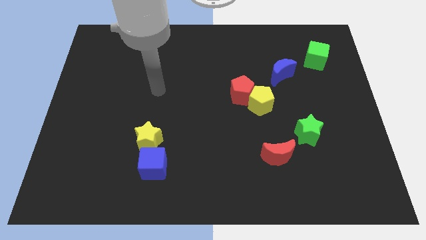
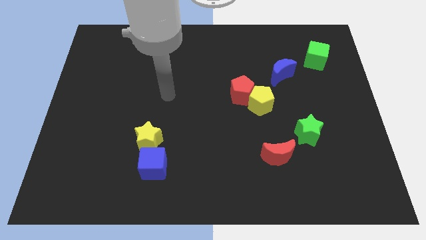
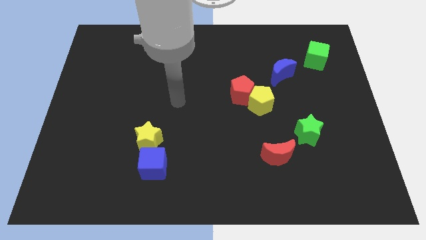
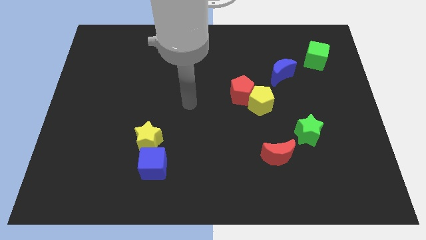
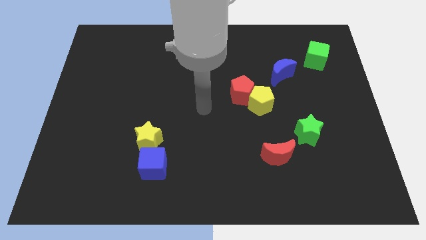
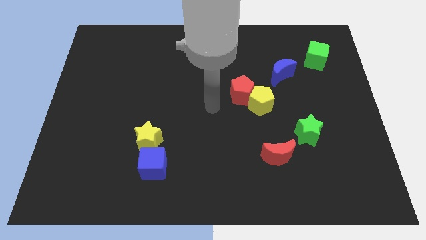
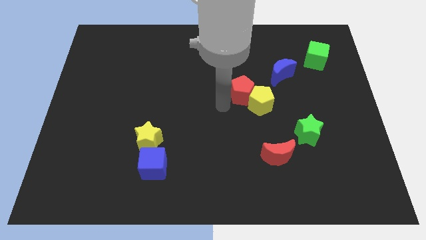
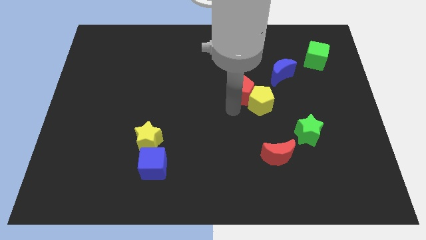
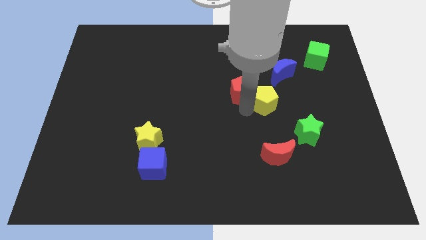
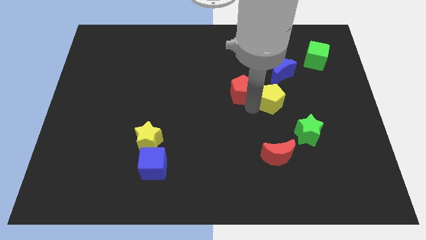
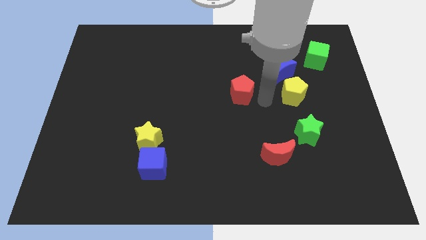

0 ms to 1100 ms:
pull the red pentagon apart from the yellow pentagon

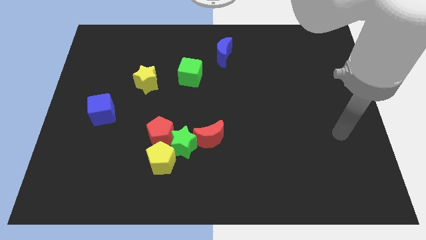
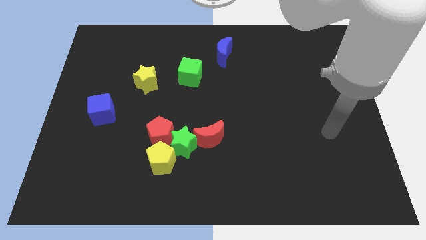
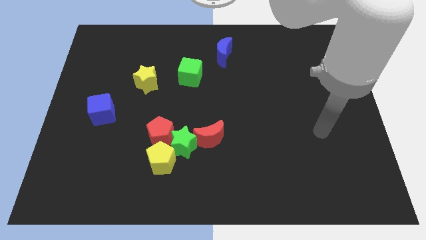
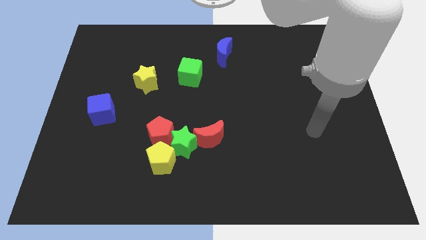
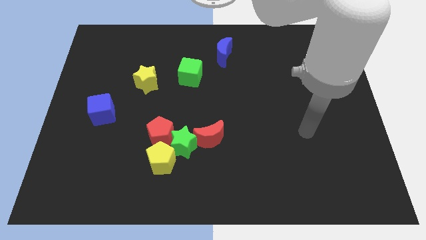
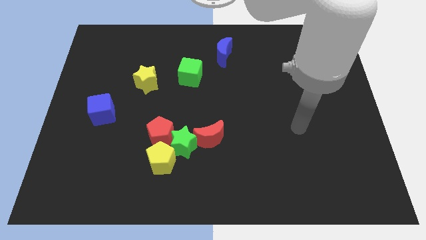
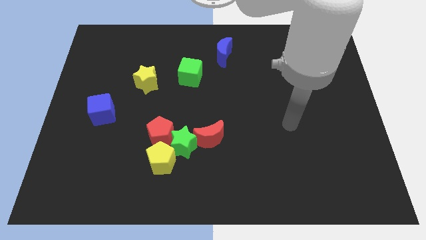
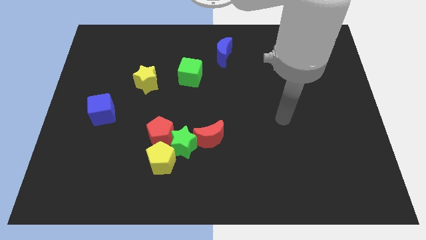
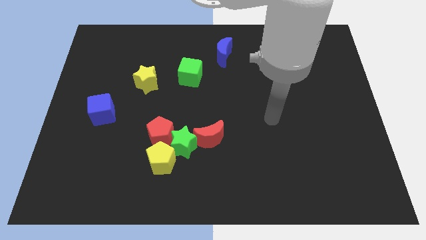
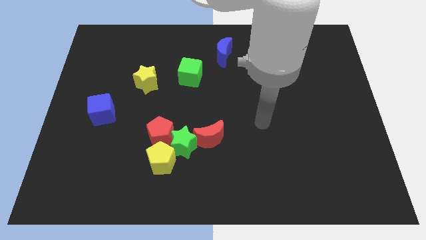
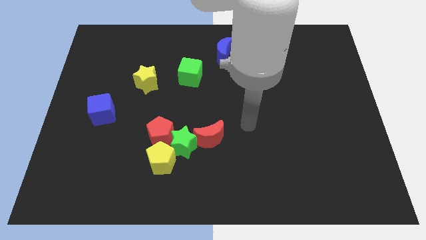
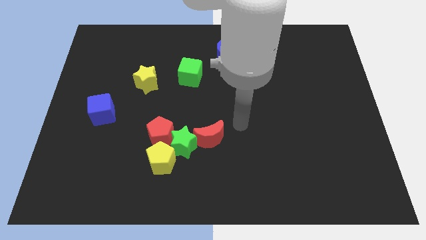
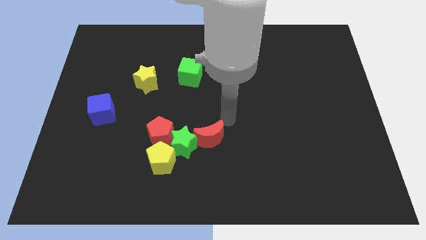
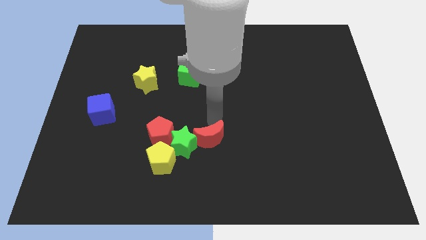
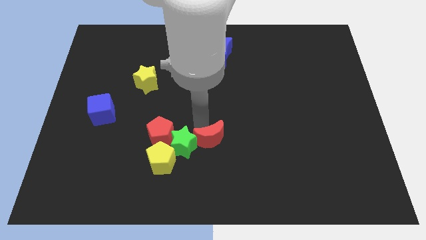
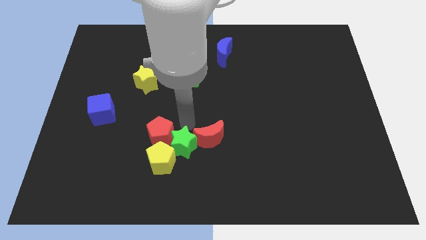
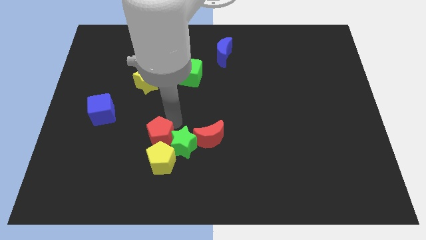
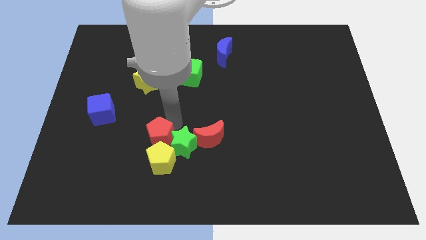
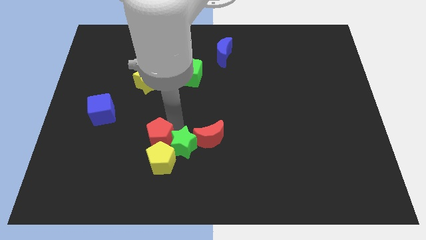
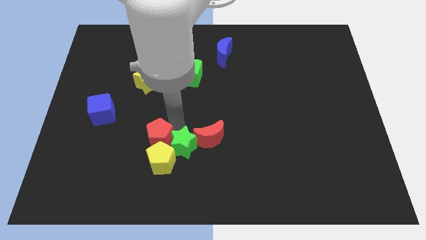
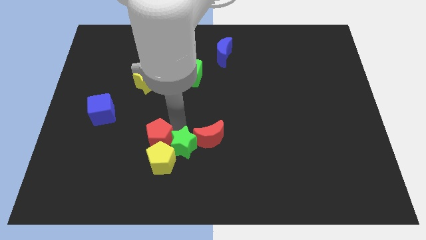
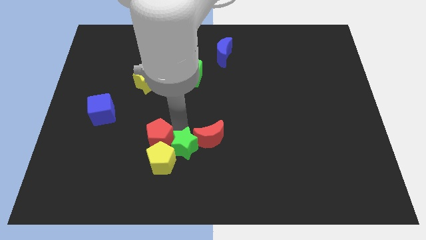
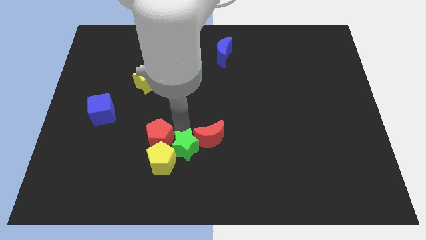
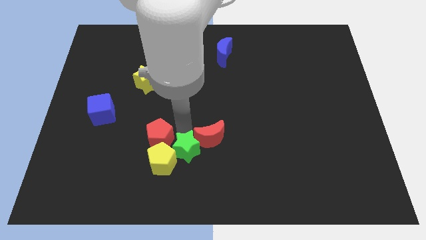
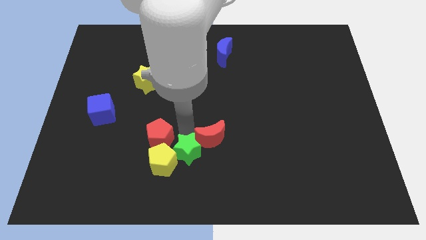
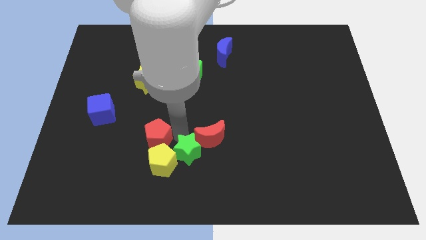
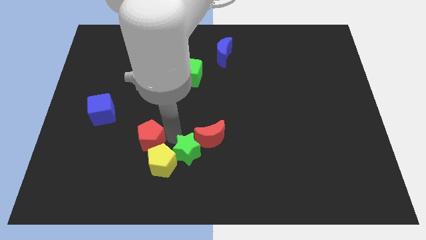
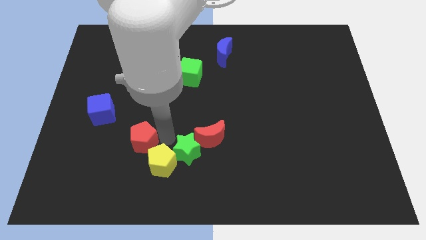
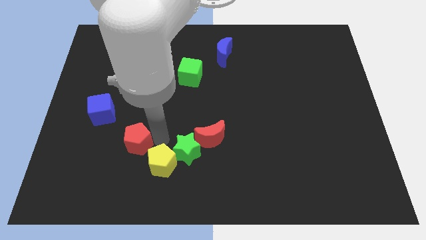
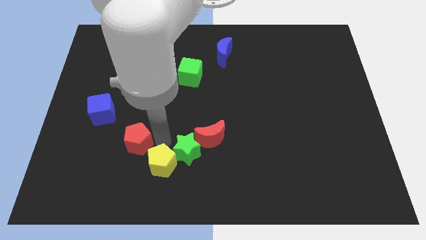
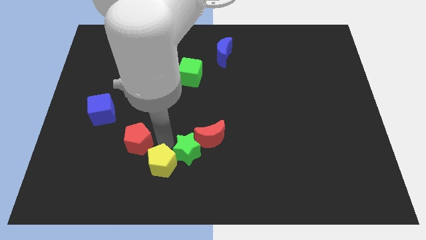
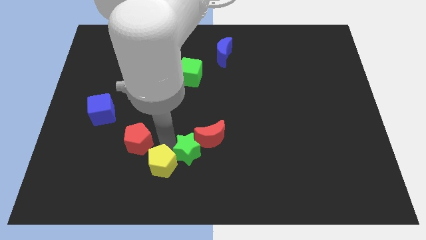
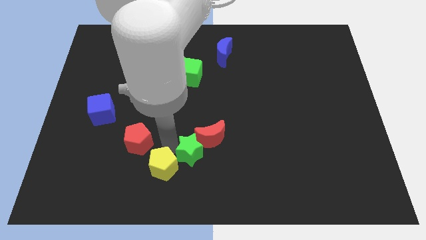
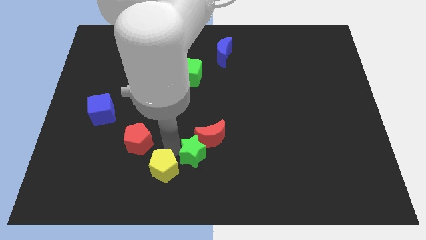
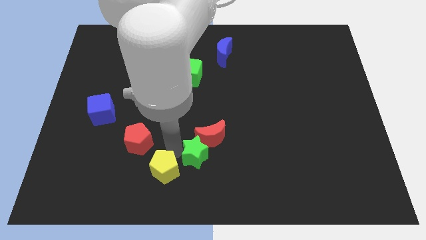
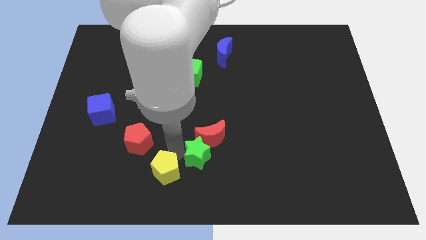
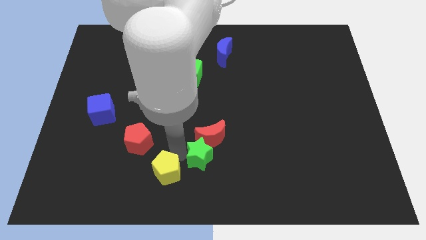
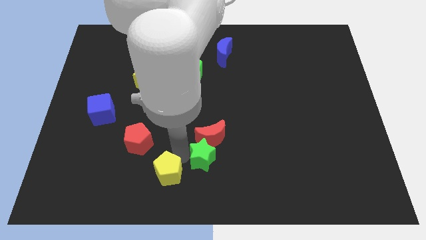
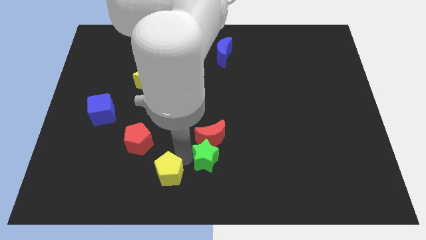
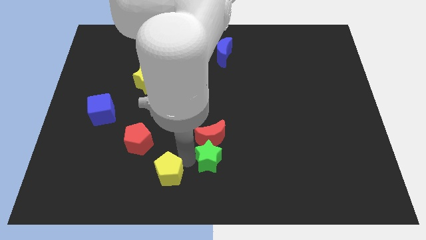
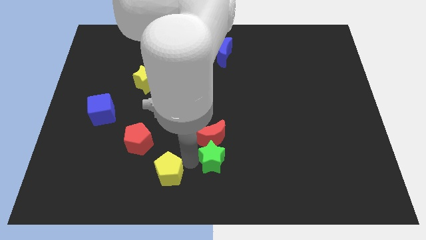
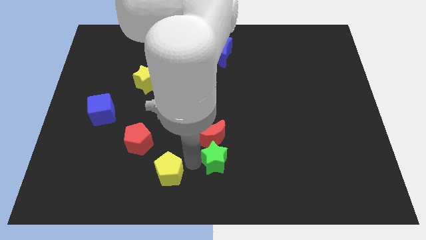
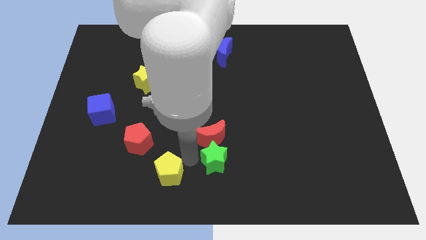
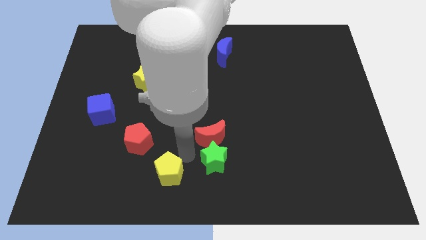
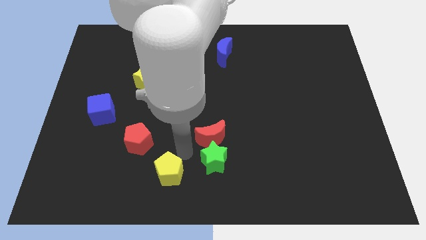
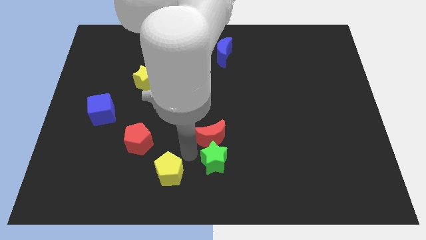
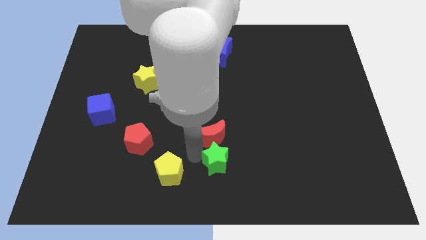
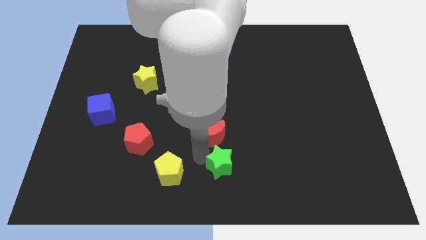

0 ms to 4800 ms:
separate the green star from the clump

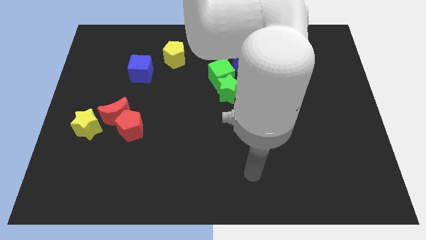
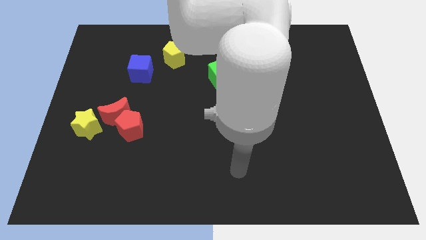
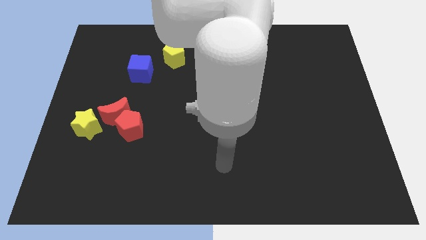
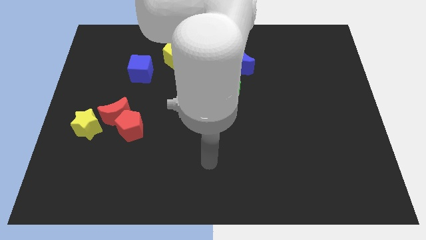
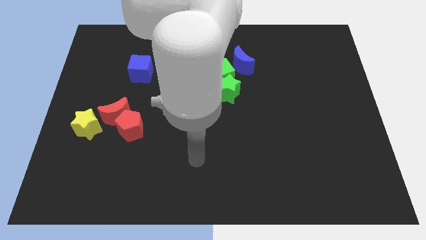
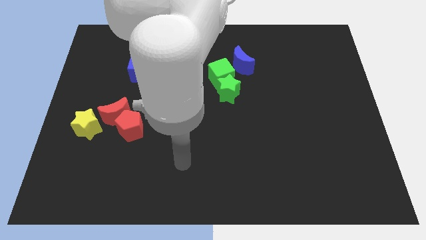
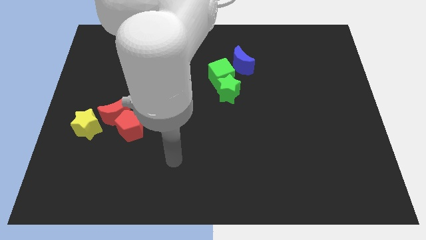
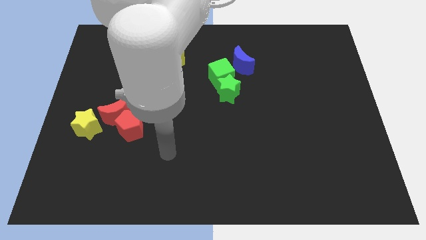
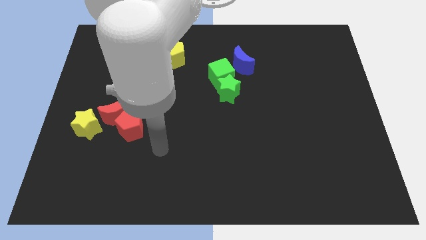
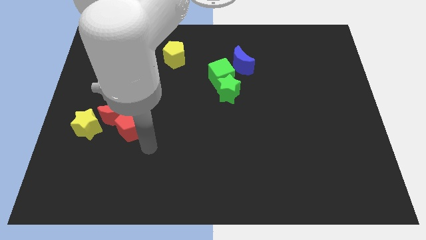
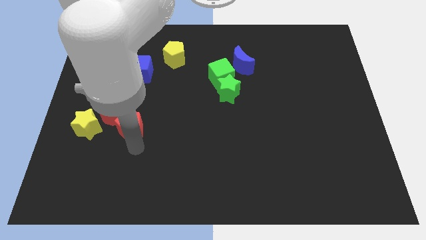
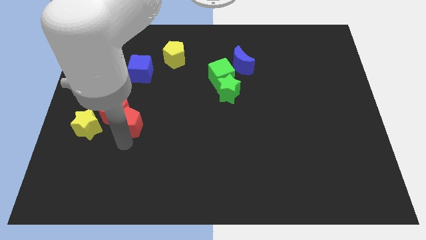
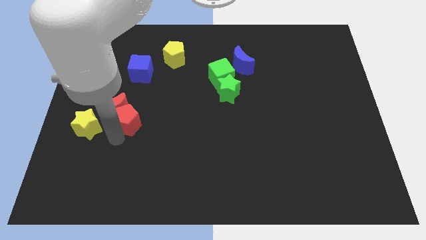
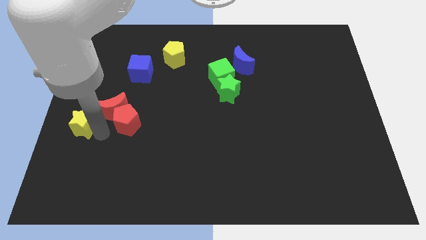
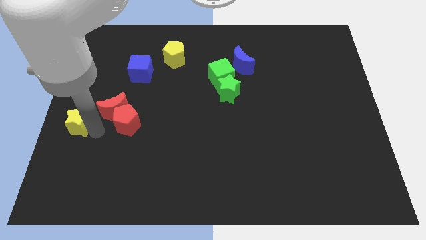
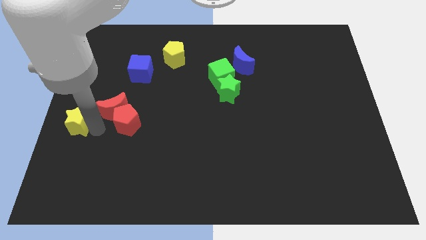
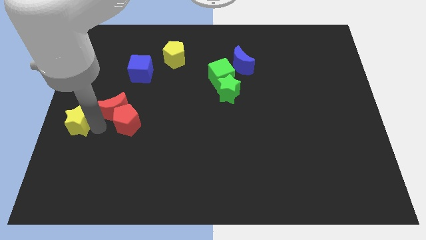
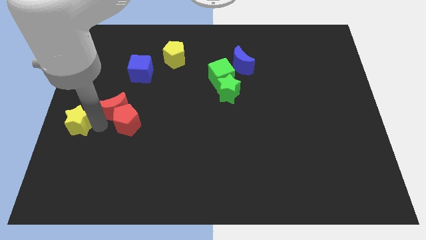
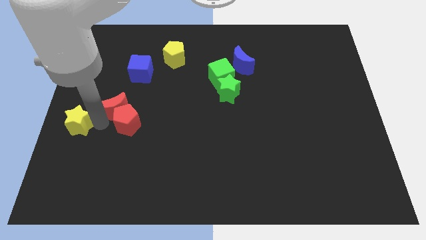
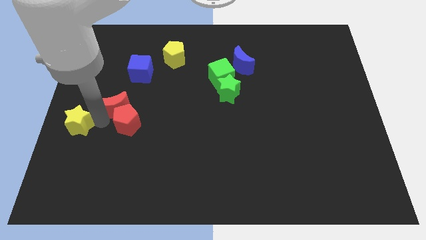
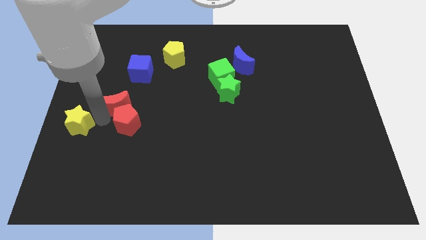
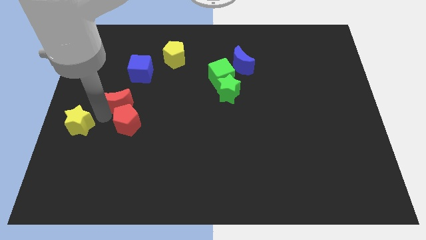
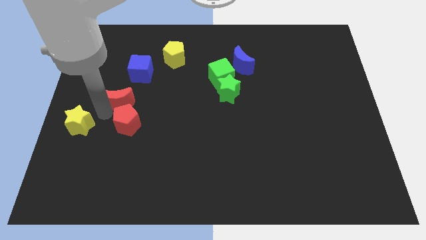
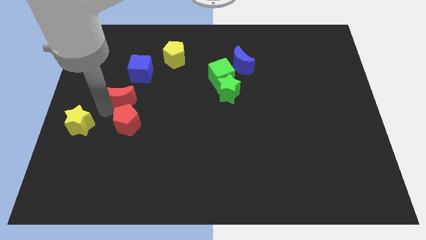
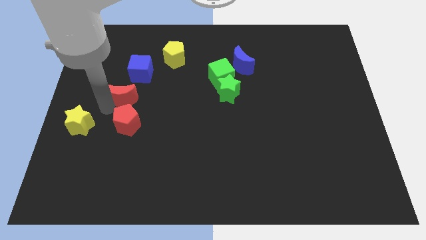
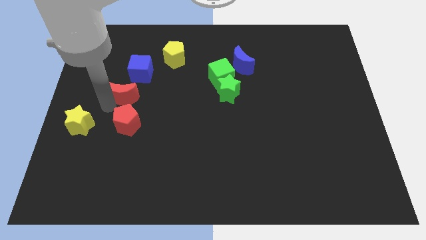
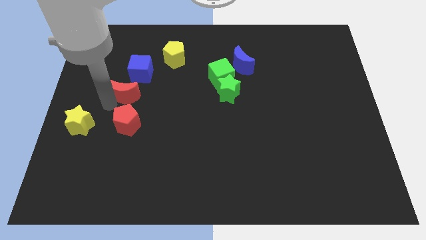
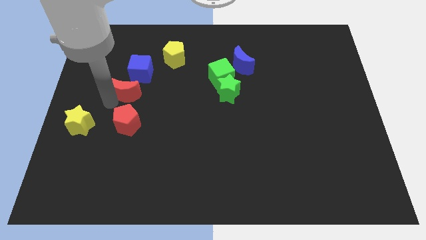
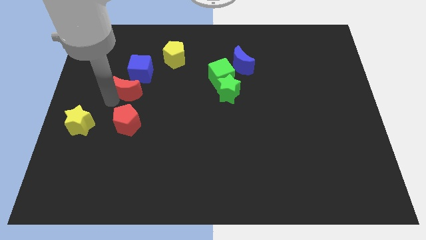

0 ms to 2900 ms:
move the red moon away from the red pentagon and yellow star

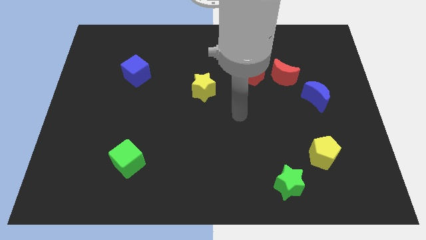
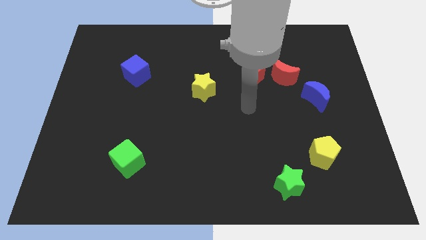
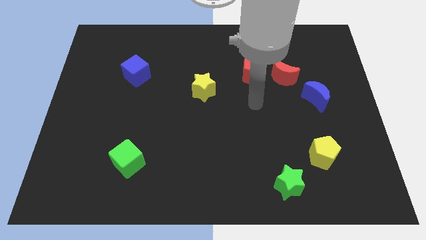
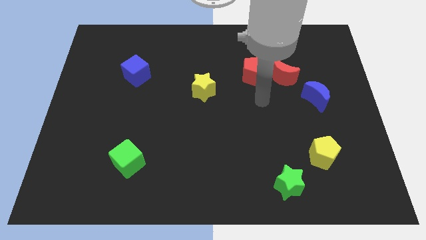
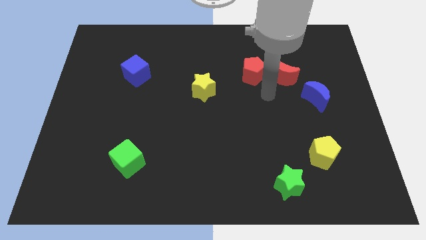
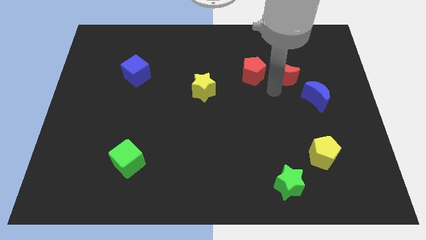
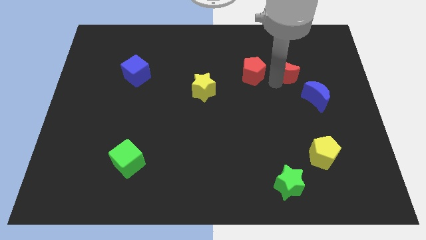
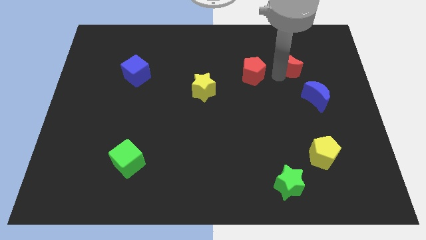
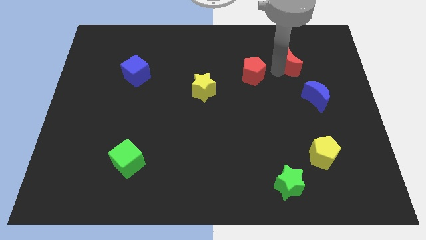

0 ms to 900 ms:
separate the red pentagon from the red moon
